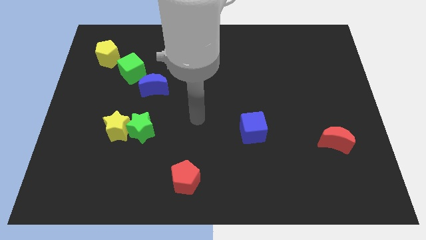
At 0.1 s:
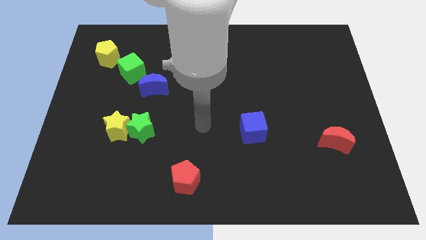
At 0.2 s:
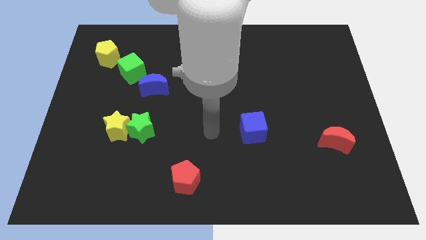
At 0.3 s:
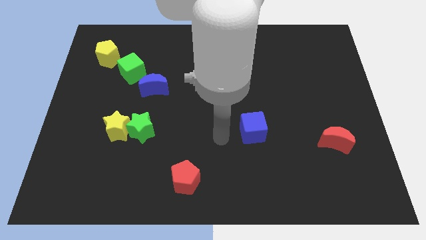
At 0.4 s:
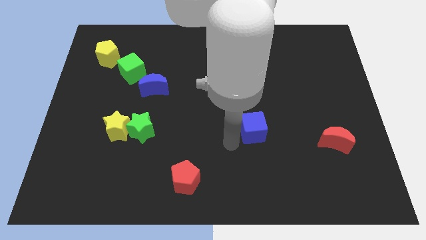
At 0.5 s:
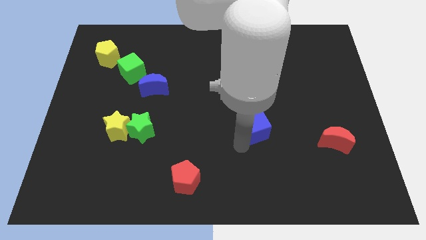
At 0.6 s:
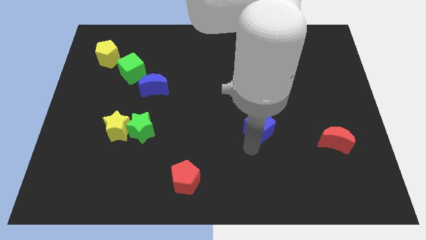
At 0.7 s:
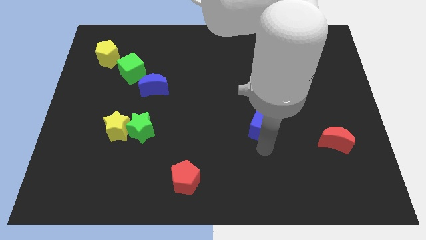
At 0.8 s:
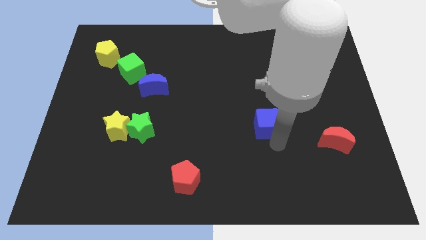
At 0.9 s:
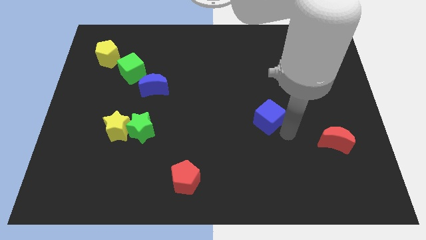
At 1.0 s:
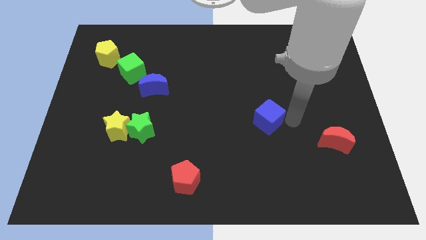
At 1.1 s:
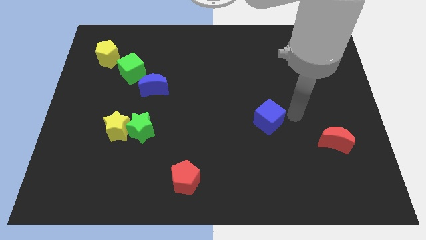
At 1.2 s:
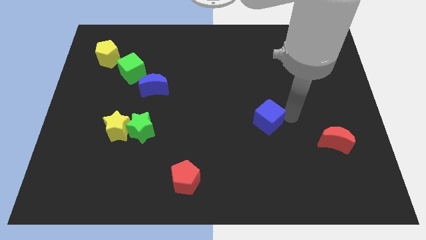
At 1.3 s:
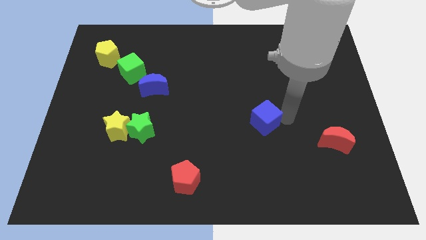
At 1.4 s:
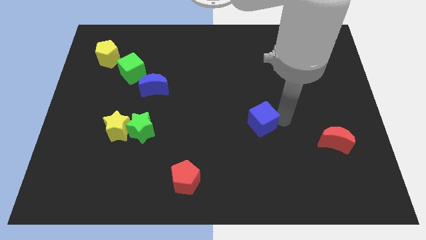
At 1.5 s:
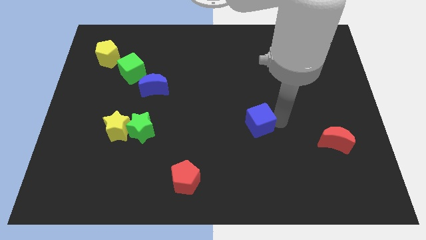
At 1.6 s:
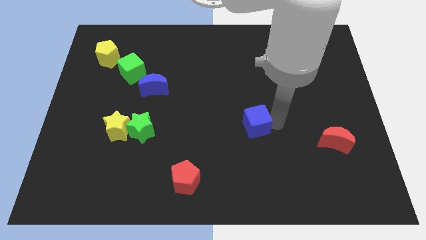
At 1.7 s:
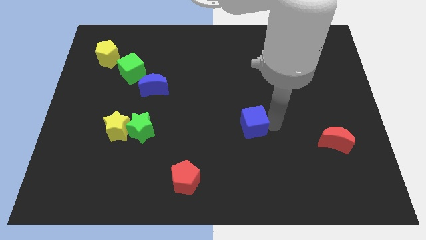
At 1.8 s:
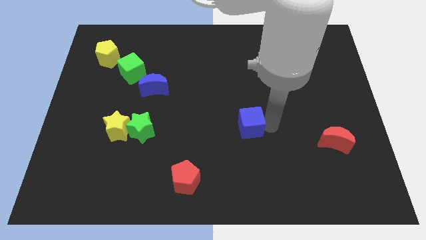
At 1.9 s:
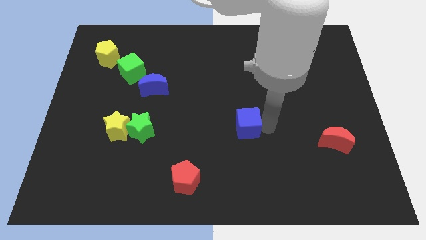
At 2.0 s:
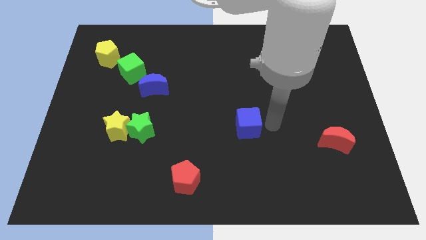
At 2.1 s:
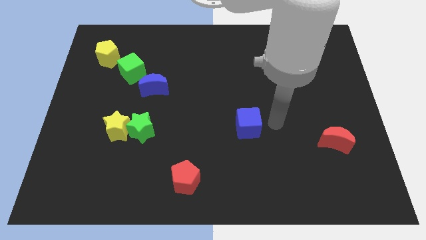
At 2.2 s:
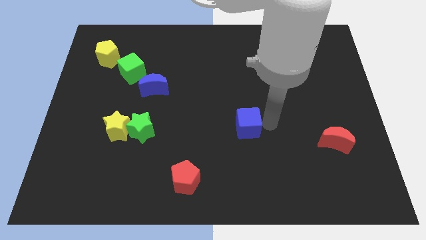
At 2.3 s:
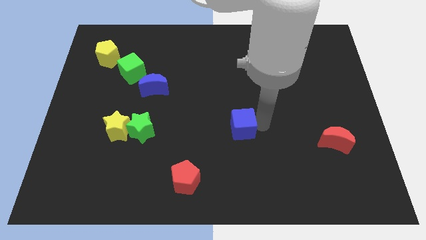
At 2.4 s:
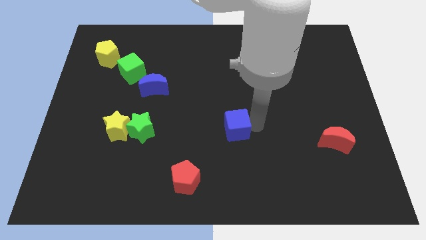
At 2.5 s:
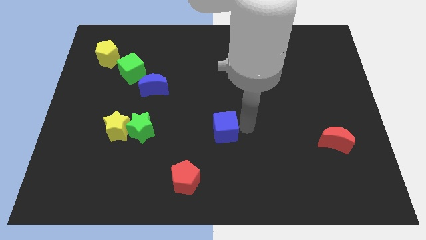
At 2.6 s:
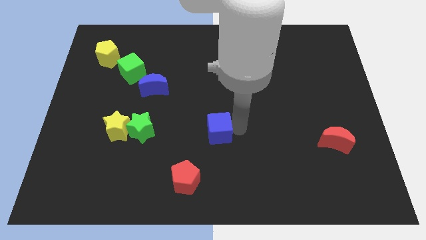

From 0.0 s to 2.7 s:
move the blue cube slightly to the left

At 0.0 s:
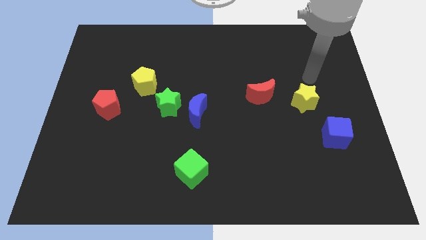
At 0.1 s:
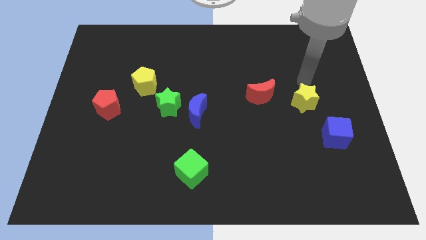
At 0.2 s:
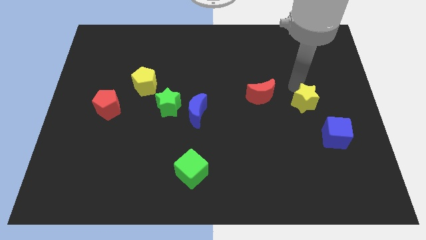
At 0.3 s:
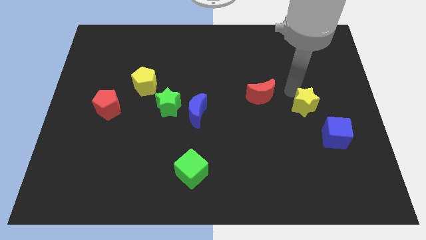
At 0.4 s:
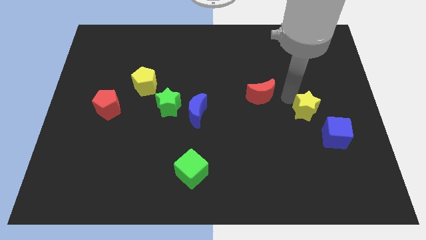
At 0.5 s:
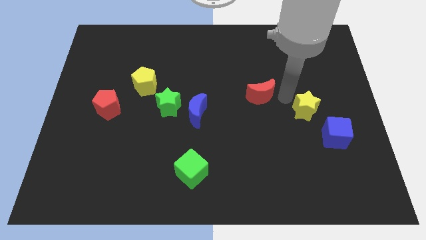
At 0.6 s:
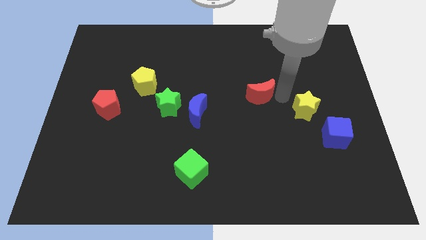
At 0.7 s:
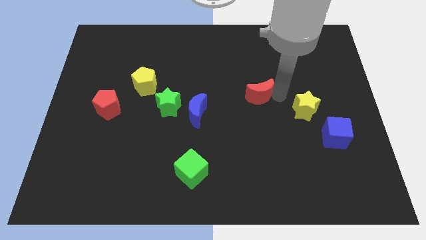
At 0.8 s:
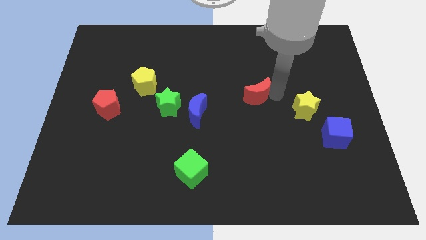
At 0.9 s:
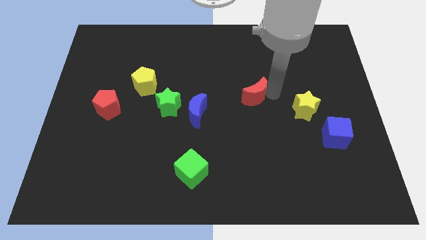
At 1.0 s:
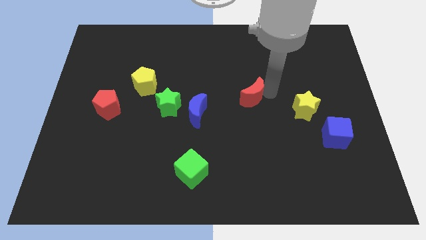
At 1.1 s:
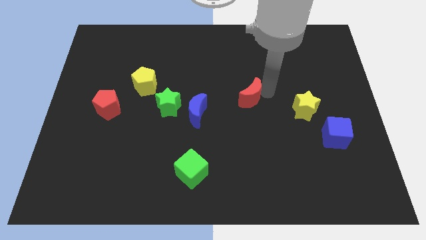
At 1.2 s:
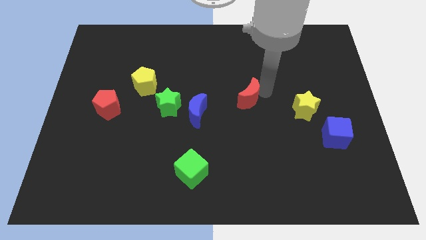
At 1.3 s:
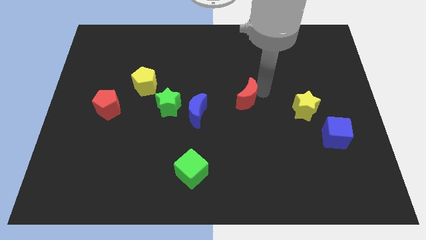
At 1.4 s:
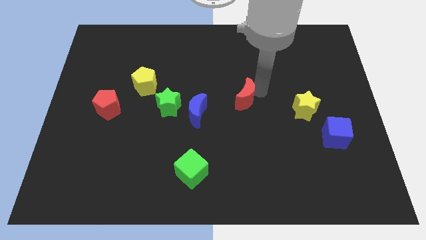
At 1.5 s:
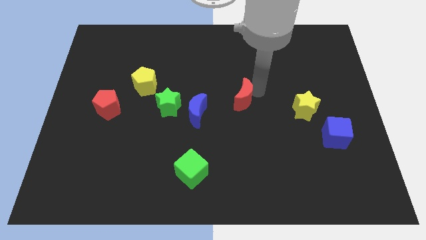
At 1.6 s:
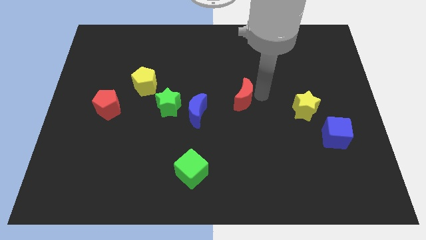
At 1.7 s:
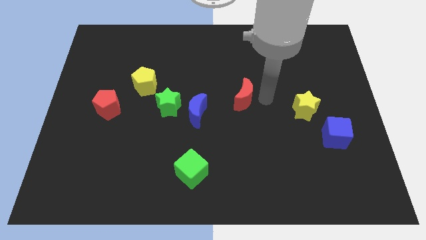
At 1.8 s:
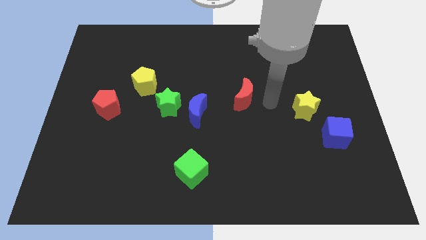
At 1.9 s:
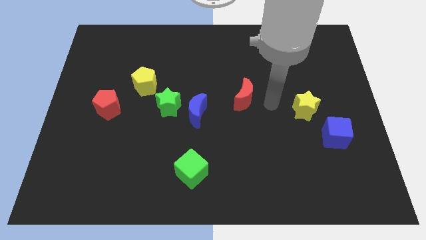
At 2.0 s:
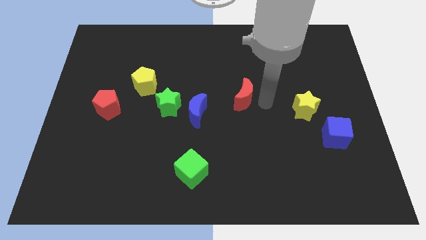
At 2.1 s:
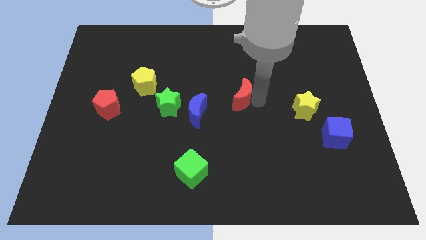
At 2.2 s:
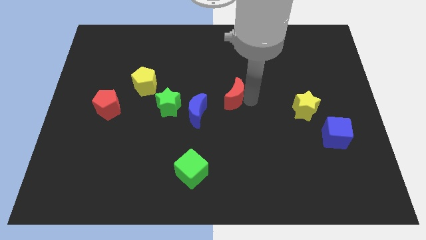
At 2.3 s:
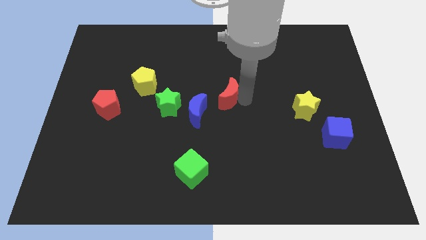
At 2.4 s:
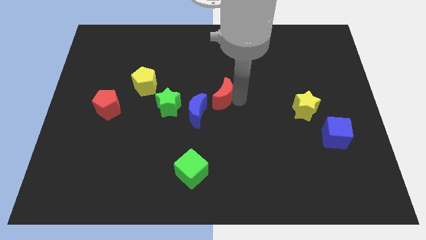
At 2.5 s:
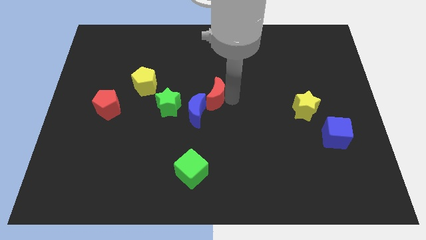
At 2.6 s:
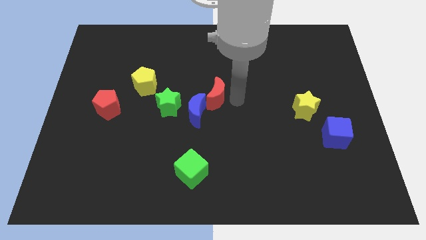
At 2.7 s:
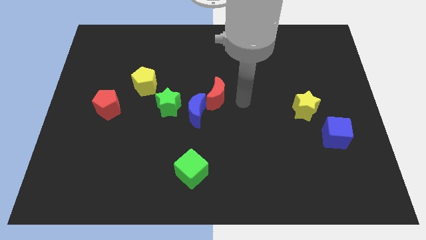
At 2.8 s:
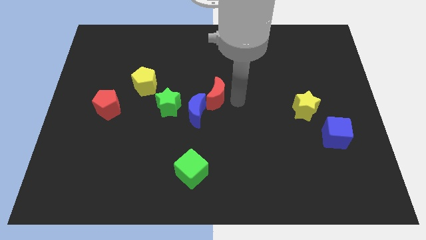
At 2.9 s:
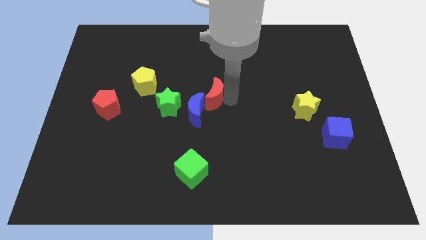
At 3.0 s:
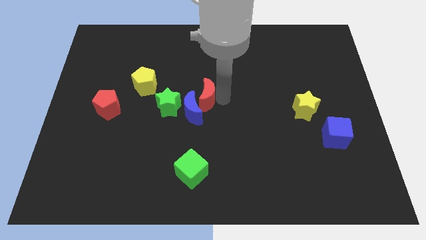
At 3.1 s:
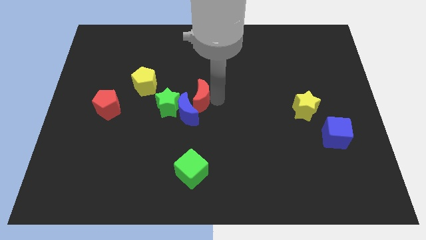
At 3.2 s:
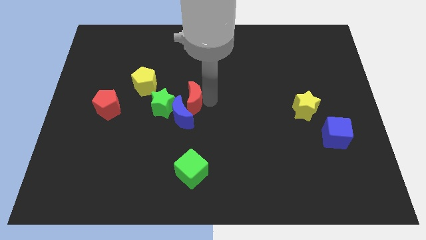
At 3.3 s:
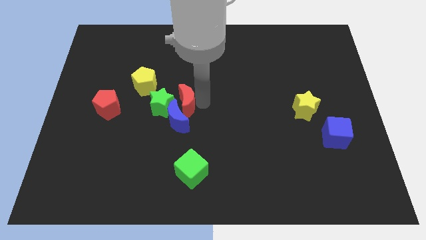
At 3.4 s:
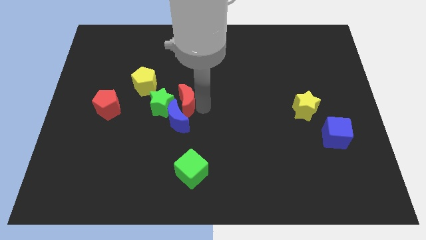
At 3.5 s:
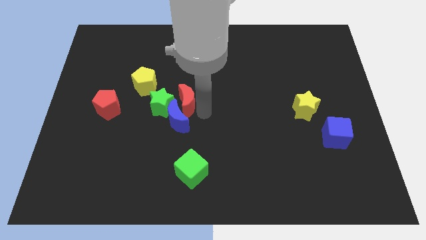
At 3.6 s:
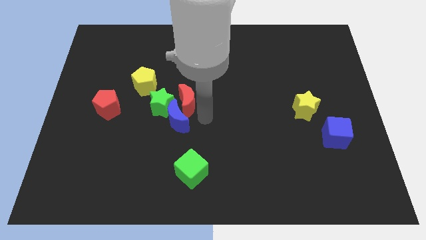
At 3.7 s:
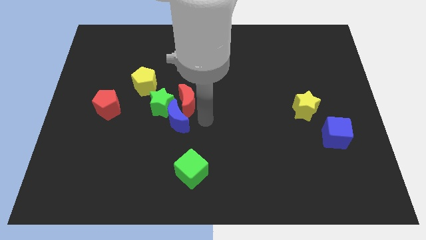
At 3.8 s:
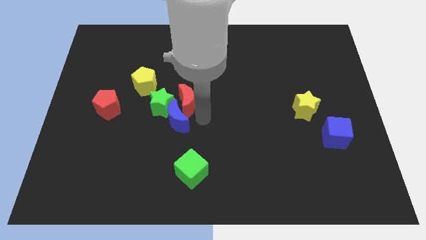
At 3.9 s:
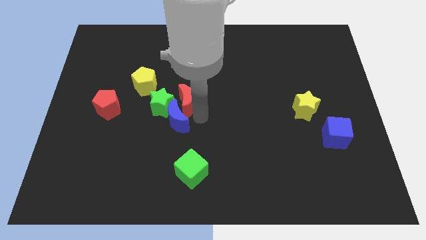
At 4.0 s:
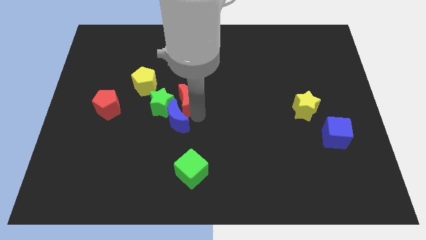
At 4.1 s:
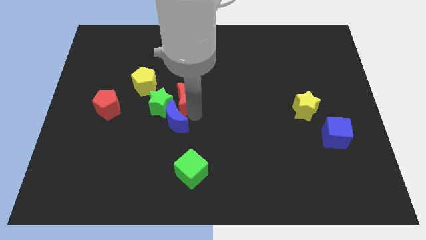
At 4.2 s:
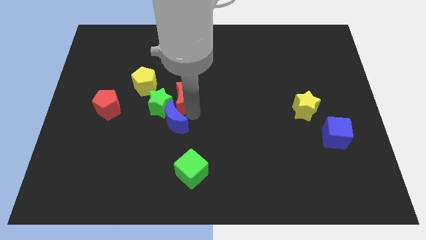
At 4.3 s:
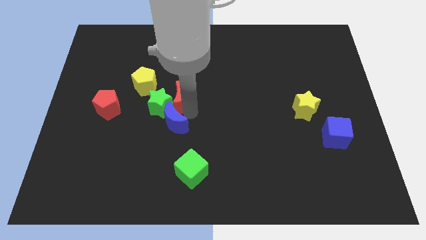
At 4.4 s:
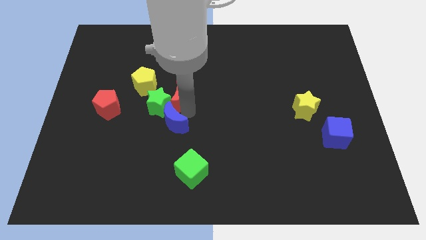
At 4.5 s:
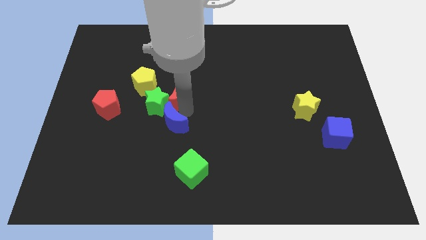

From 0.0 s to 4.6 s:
slide the red moon to the left

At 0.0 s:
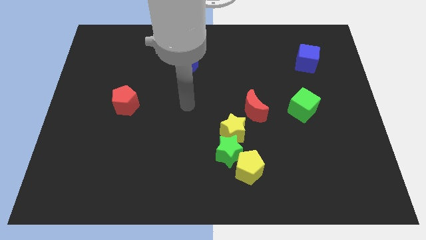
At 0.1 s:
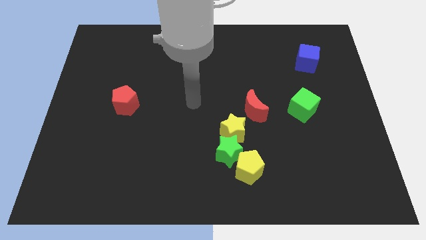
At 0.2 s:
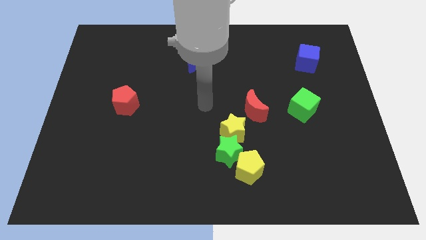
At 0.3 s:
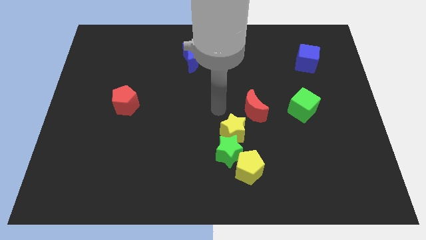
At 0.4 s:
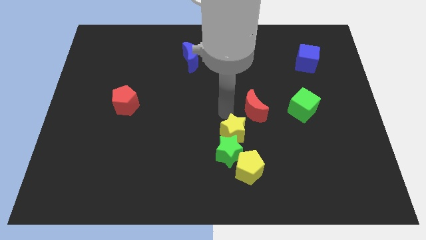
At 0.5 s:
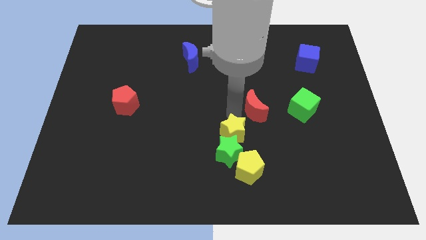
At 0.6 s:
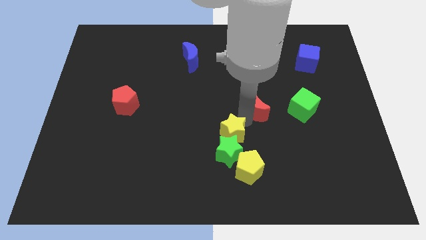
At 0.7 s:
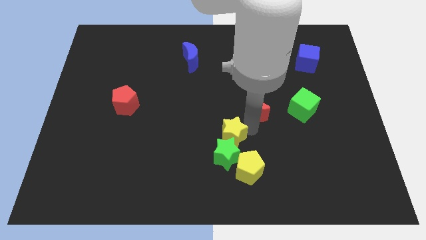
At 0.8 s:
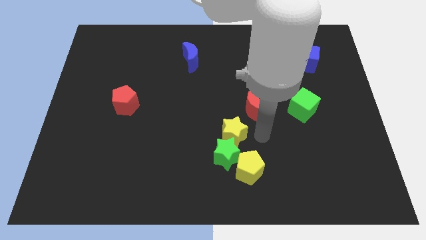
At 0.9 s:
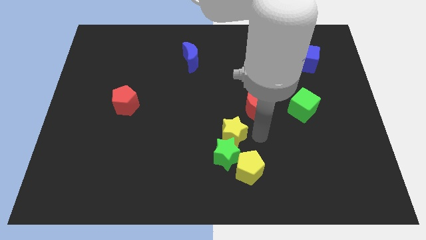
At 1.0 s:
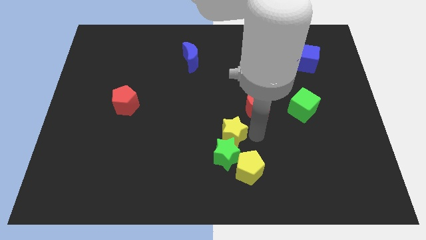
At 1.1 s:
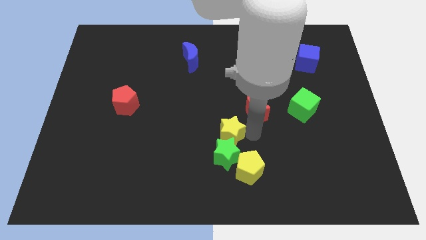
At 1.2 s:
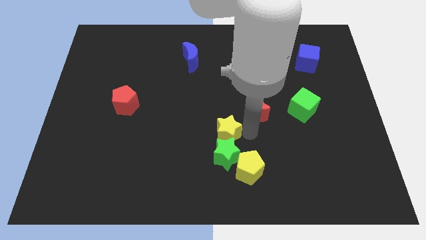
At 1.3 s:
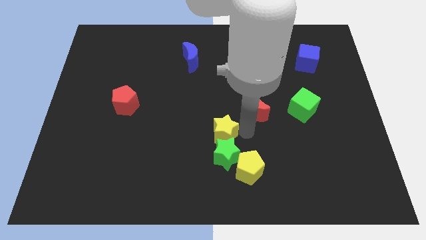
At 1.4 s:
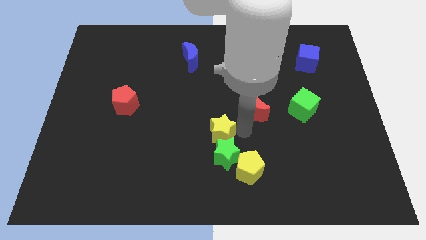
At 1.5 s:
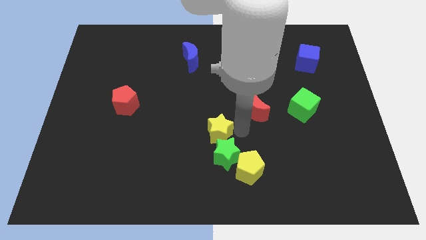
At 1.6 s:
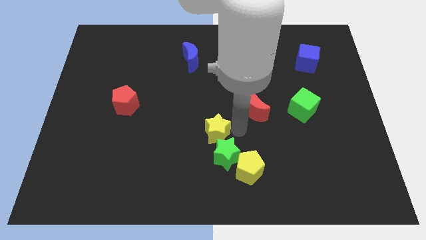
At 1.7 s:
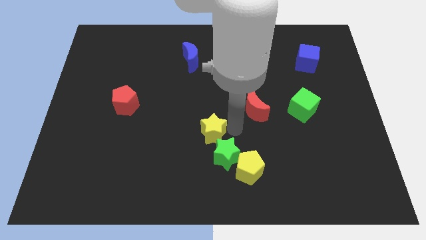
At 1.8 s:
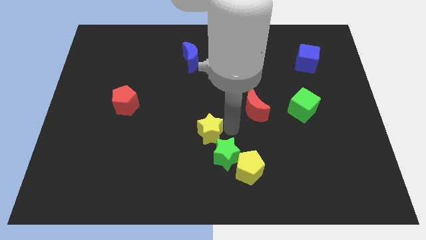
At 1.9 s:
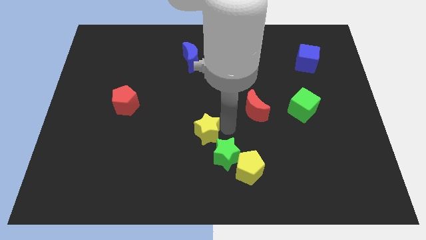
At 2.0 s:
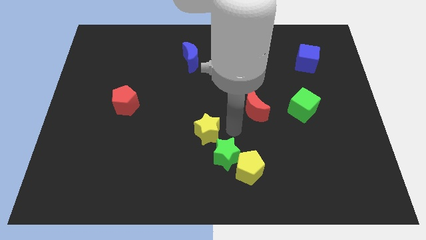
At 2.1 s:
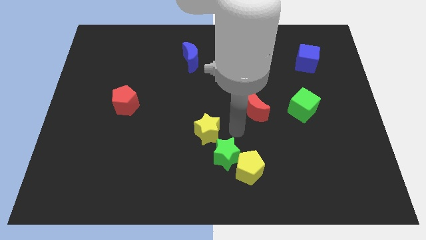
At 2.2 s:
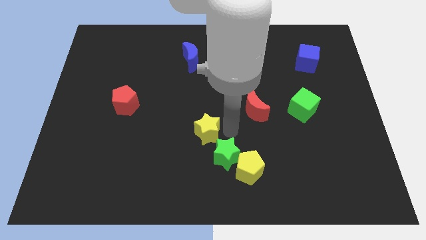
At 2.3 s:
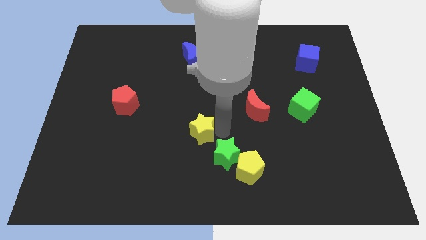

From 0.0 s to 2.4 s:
move the yellow star somewhat to the left
